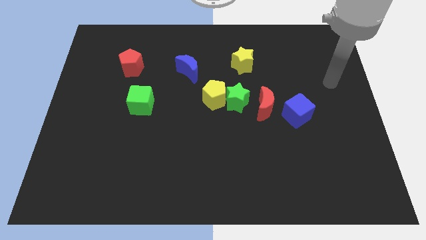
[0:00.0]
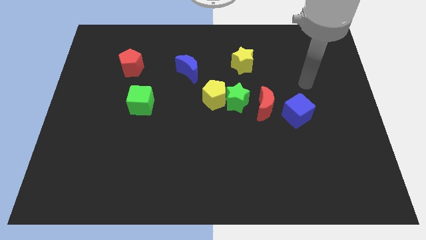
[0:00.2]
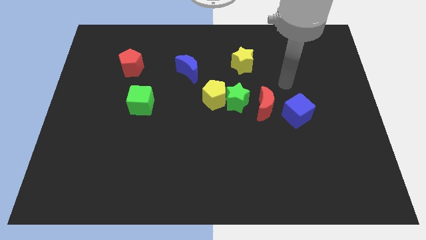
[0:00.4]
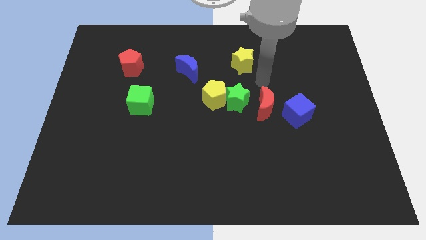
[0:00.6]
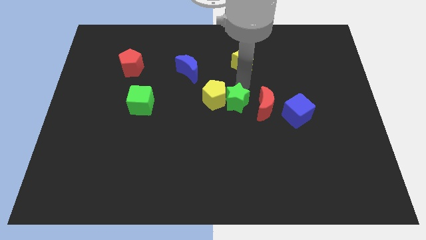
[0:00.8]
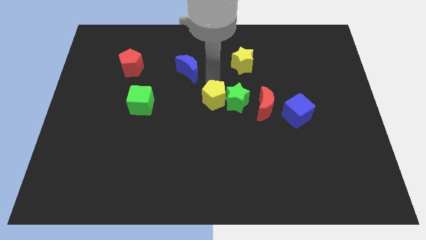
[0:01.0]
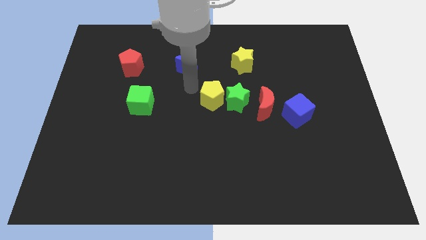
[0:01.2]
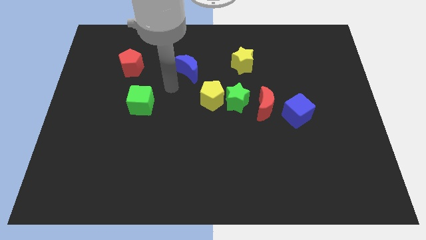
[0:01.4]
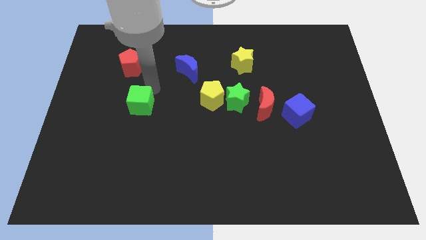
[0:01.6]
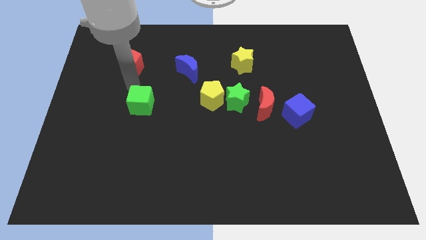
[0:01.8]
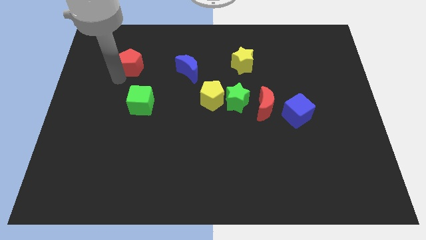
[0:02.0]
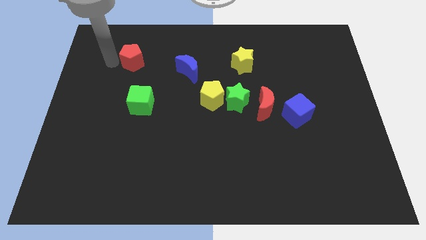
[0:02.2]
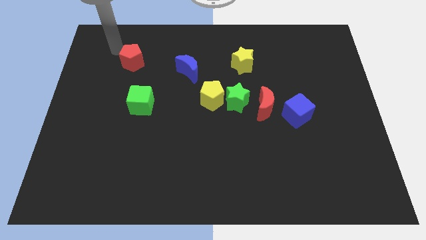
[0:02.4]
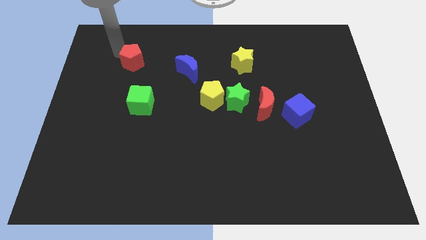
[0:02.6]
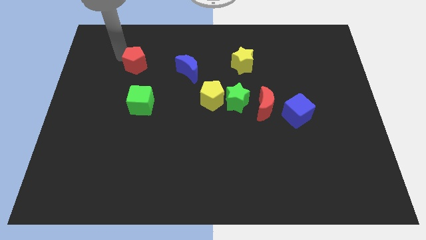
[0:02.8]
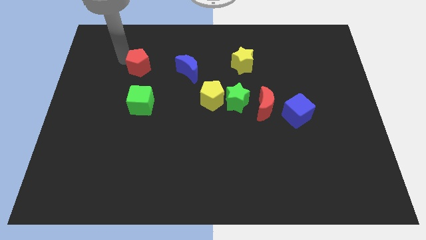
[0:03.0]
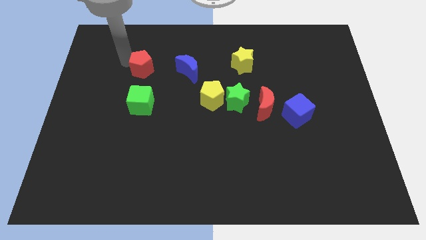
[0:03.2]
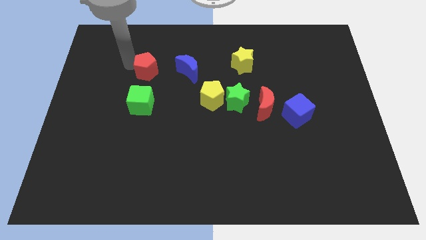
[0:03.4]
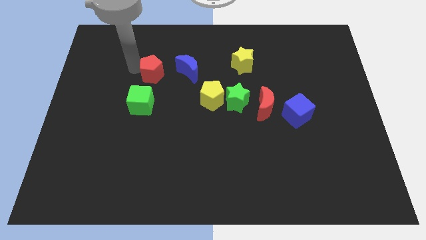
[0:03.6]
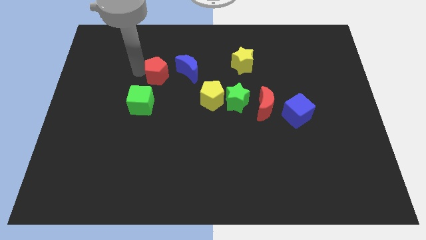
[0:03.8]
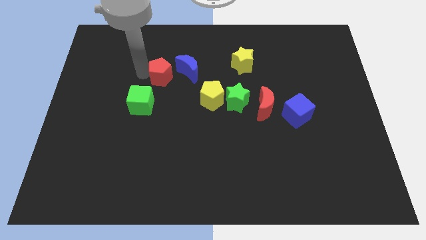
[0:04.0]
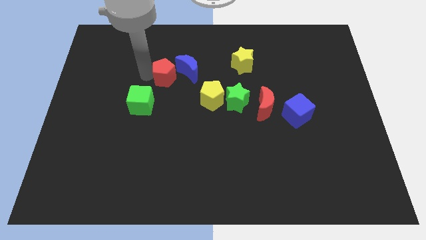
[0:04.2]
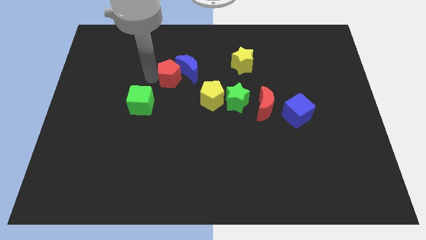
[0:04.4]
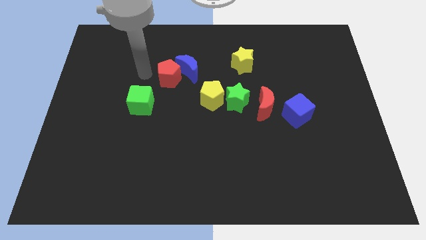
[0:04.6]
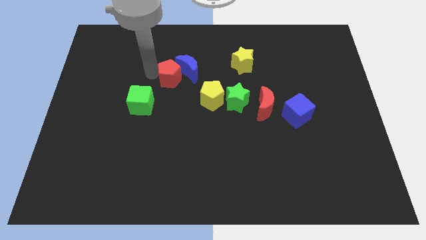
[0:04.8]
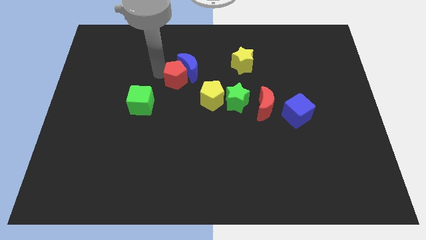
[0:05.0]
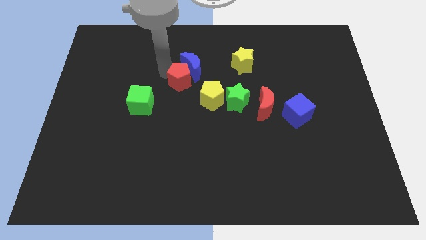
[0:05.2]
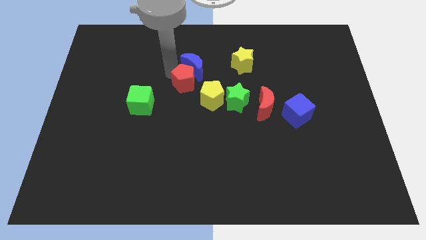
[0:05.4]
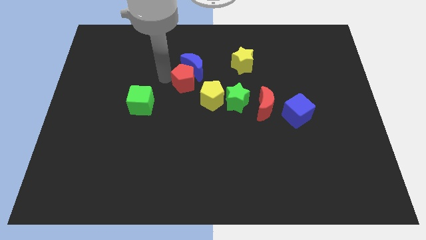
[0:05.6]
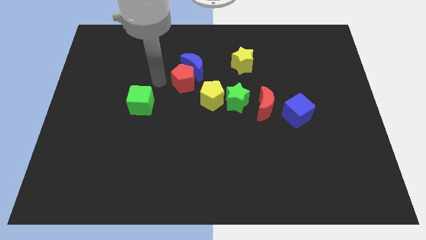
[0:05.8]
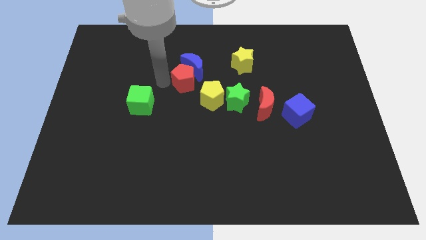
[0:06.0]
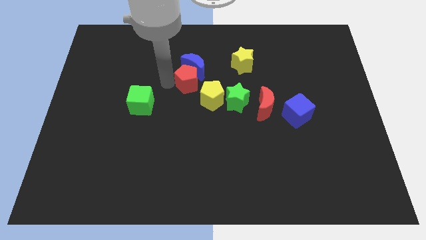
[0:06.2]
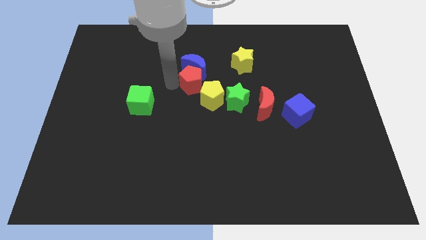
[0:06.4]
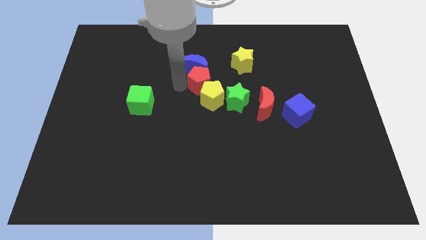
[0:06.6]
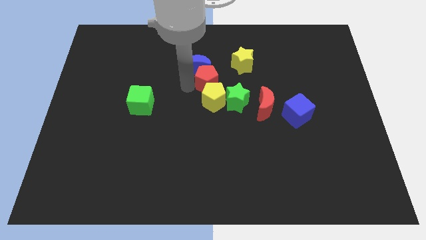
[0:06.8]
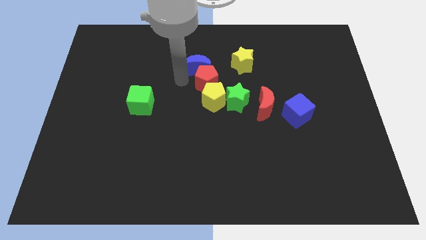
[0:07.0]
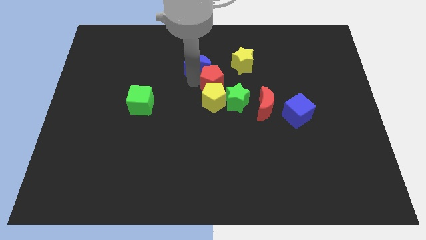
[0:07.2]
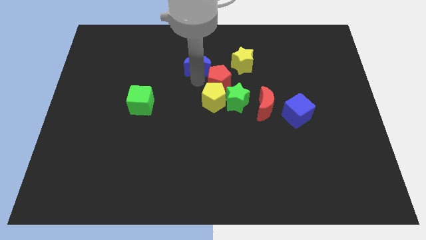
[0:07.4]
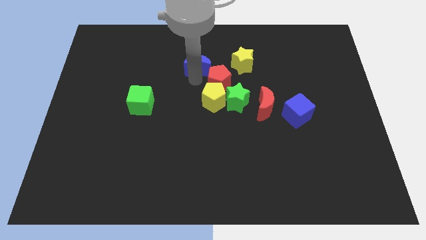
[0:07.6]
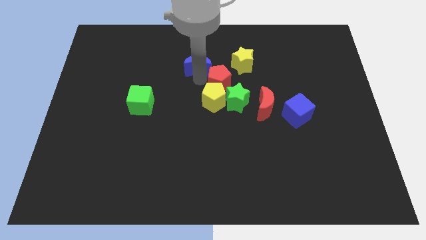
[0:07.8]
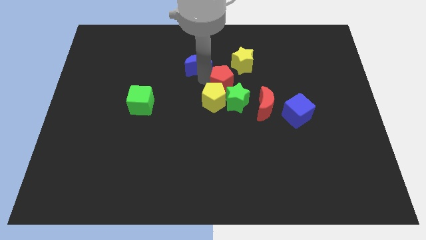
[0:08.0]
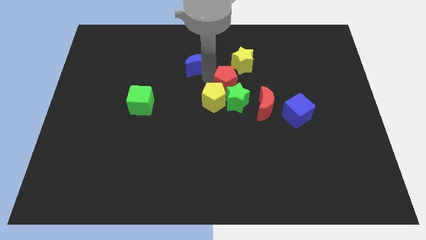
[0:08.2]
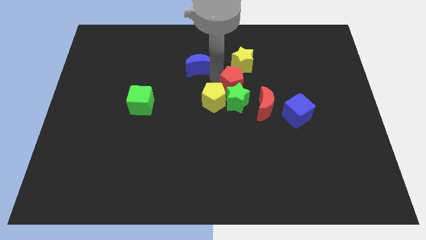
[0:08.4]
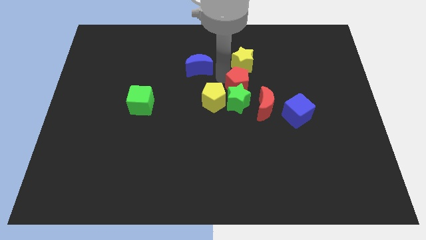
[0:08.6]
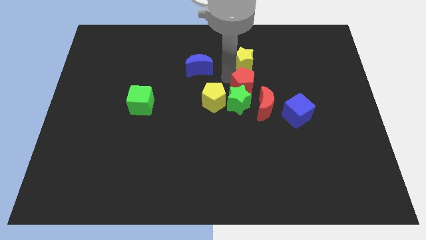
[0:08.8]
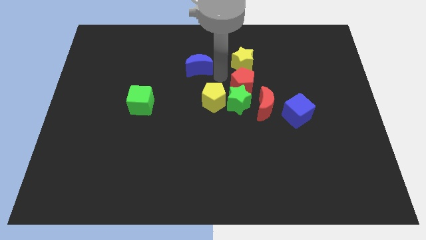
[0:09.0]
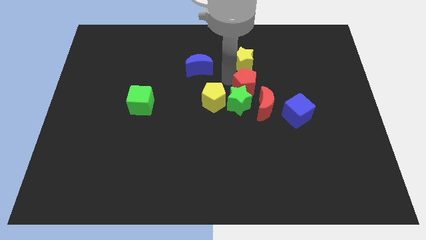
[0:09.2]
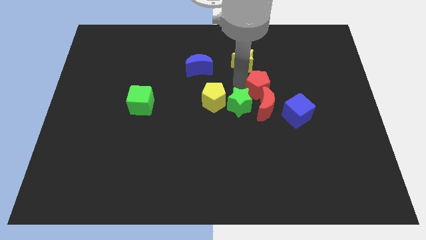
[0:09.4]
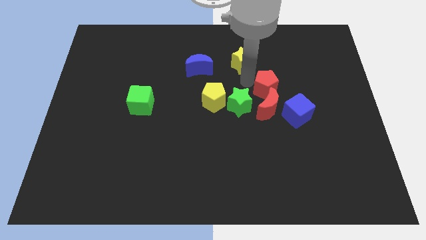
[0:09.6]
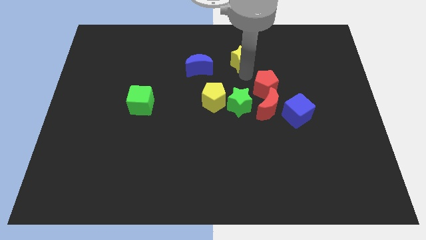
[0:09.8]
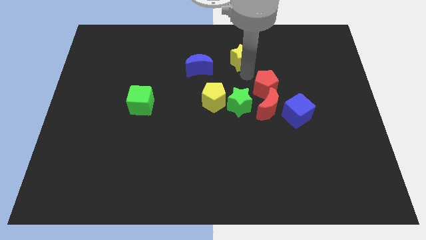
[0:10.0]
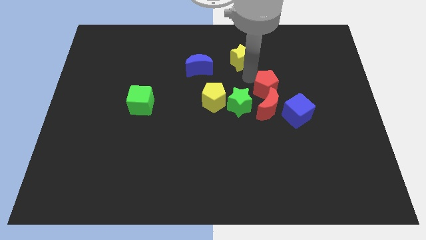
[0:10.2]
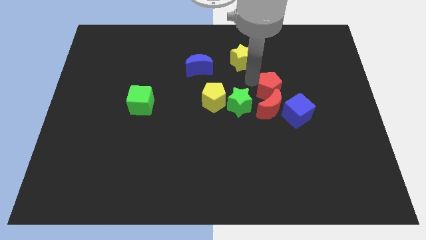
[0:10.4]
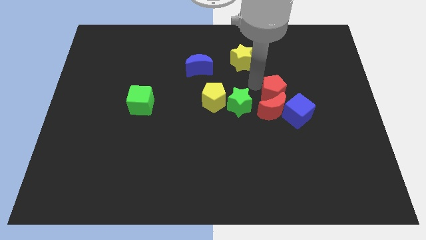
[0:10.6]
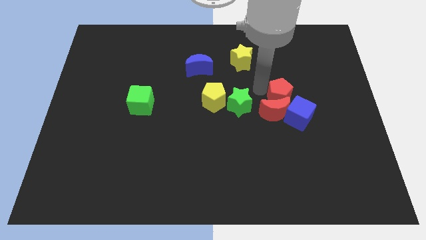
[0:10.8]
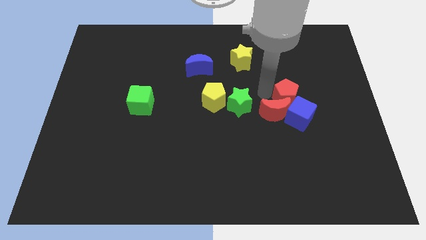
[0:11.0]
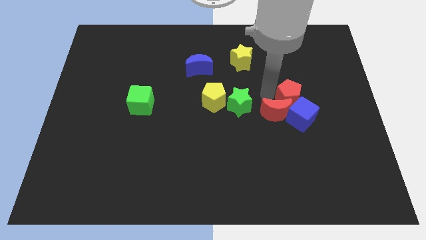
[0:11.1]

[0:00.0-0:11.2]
slide the red pentagon next to the blue cube

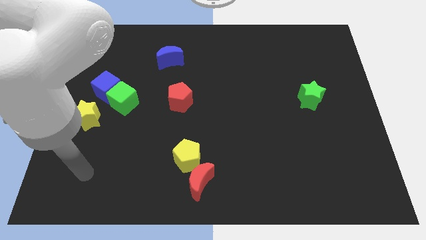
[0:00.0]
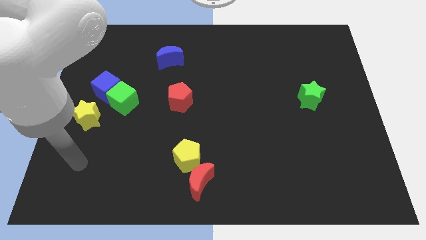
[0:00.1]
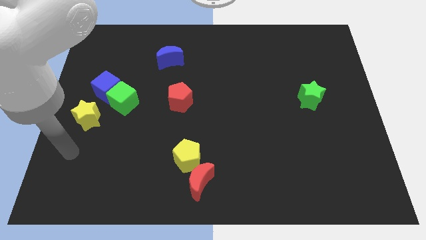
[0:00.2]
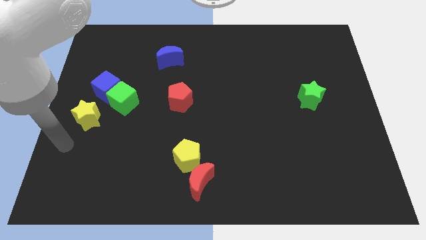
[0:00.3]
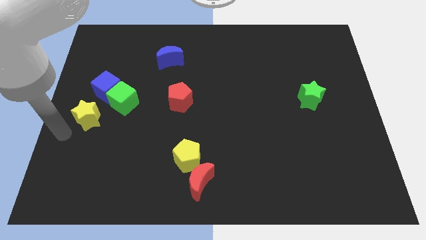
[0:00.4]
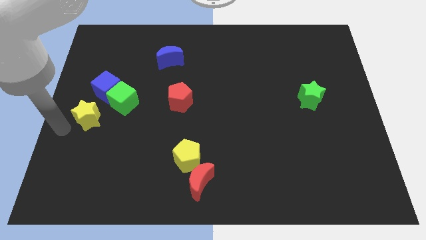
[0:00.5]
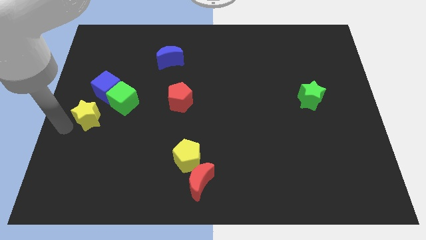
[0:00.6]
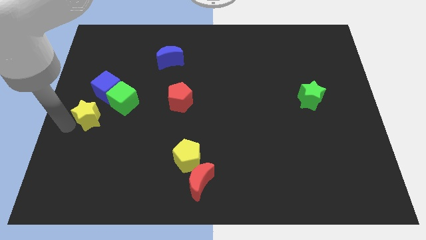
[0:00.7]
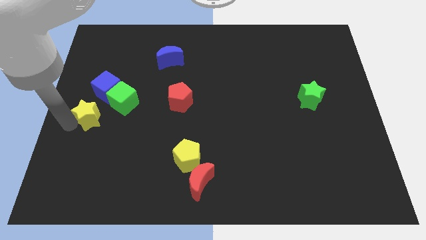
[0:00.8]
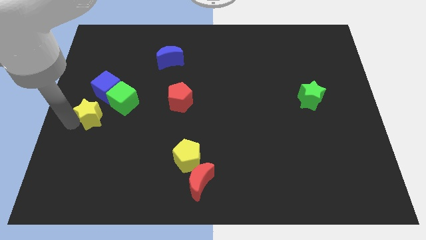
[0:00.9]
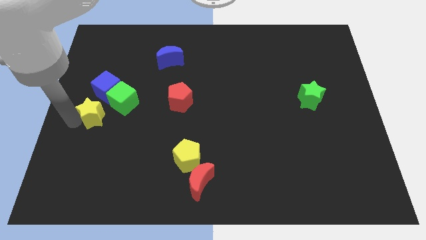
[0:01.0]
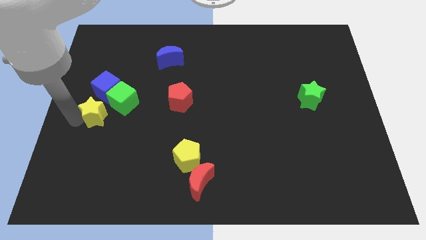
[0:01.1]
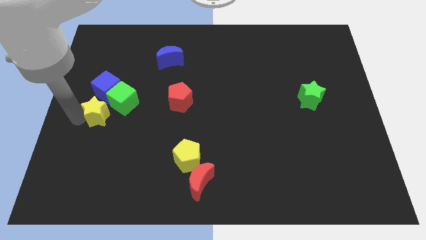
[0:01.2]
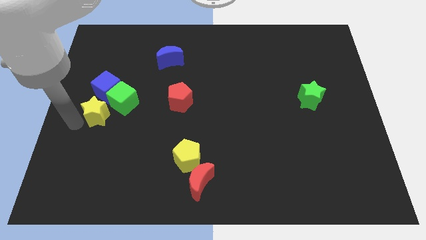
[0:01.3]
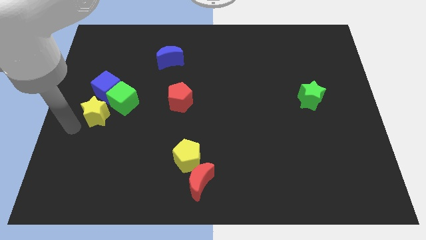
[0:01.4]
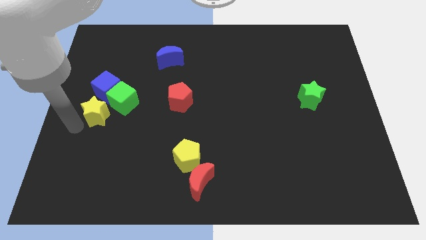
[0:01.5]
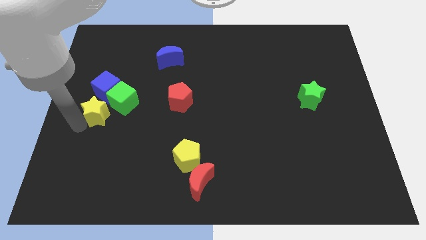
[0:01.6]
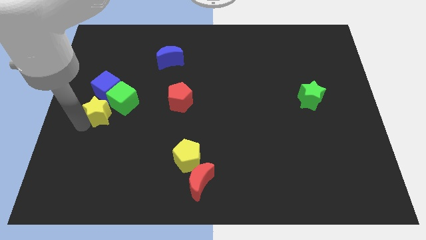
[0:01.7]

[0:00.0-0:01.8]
slide the yellow star next to the green cube
